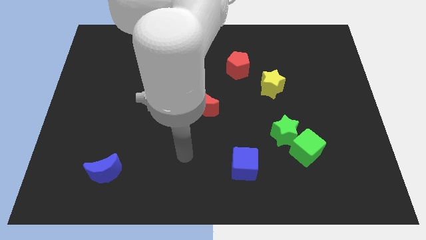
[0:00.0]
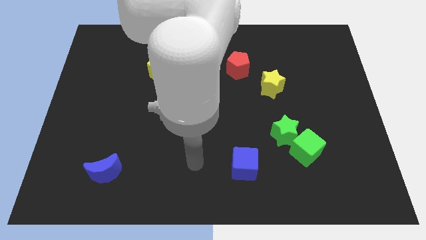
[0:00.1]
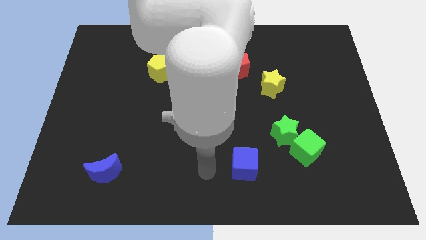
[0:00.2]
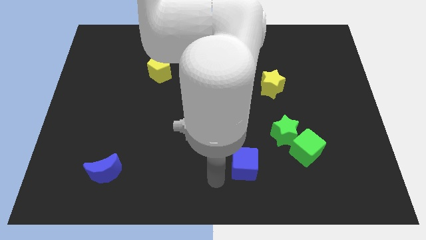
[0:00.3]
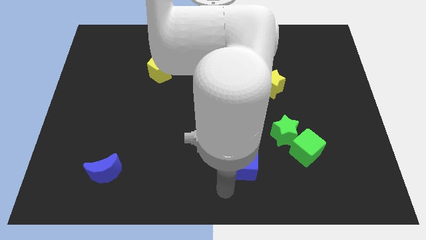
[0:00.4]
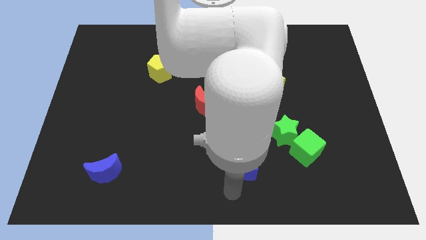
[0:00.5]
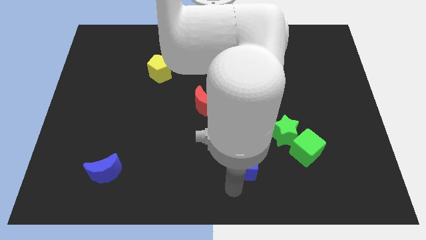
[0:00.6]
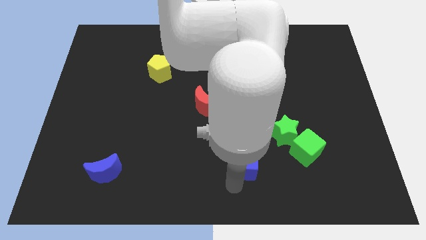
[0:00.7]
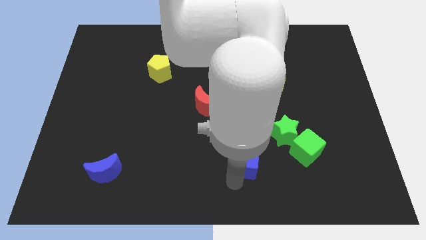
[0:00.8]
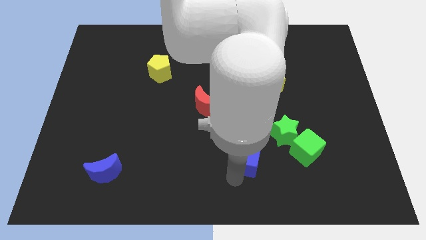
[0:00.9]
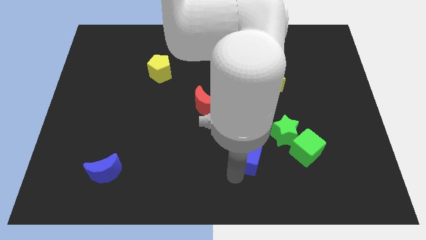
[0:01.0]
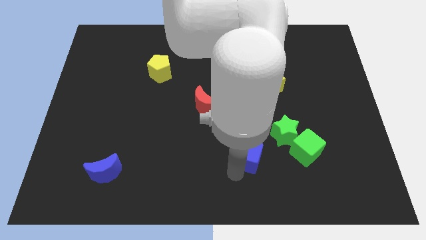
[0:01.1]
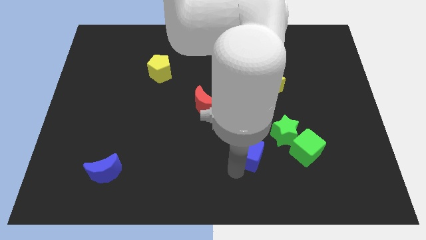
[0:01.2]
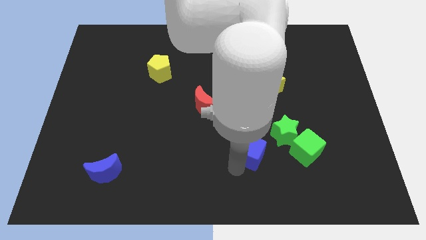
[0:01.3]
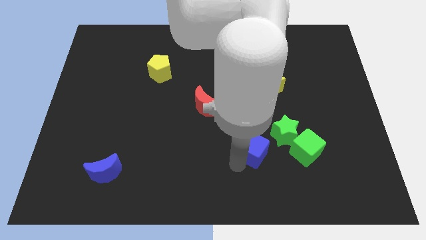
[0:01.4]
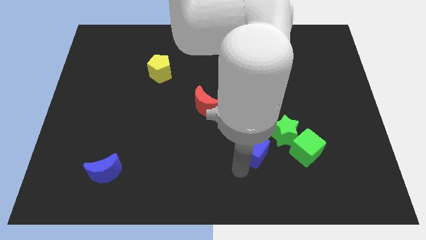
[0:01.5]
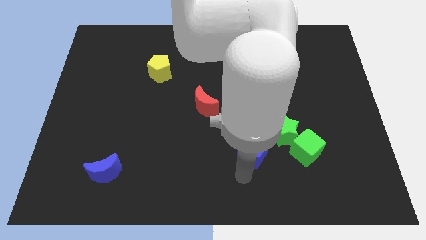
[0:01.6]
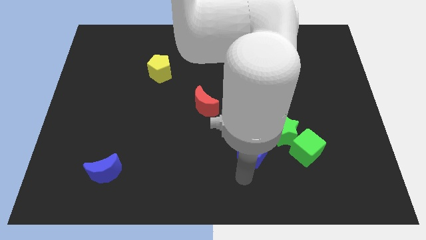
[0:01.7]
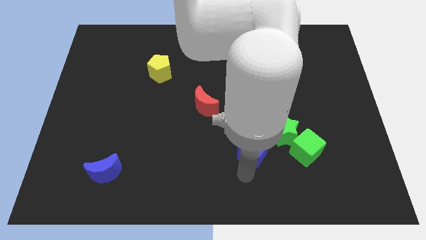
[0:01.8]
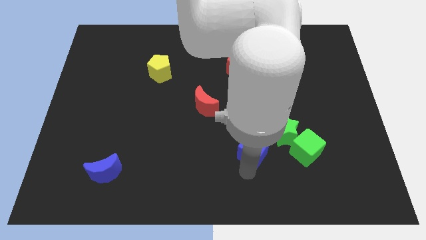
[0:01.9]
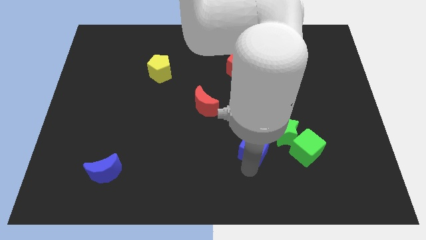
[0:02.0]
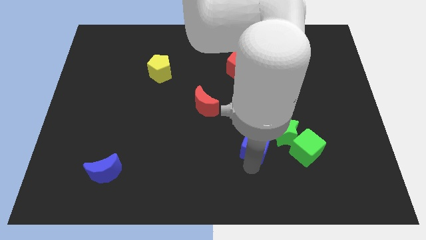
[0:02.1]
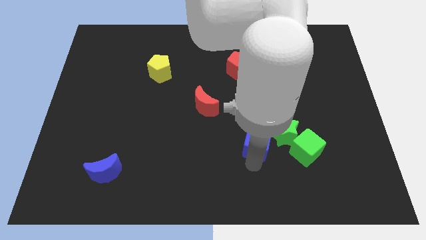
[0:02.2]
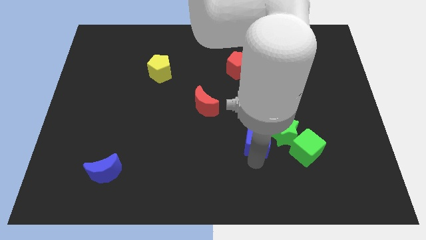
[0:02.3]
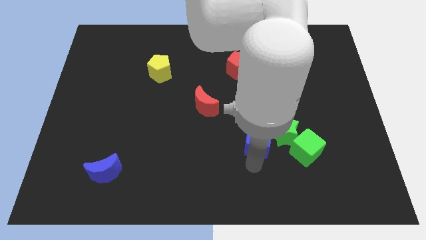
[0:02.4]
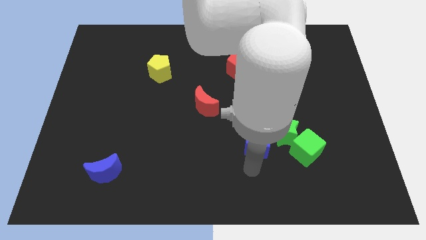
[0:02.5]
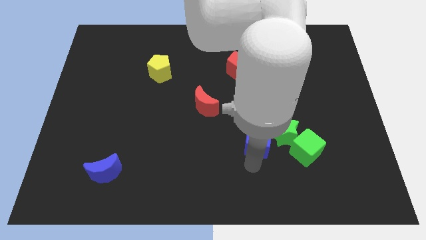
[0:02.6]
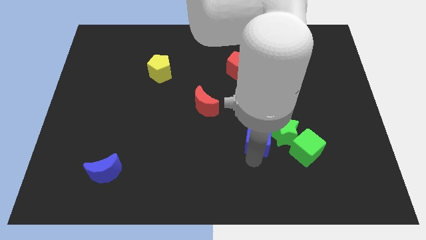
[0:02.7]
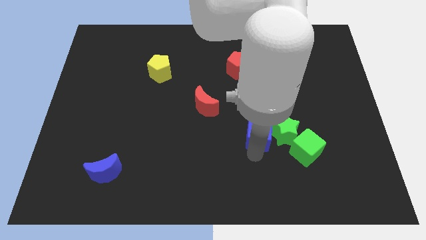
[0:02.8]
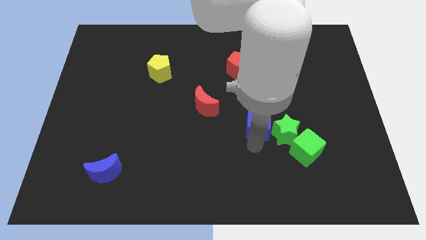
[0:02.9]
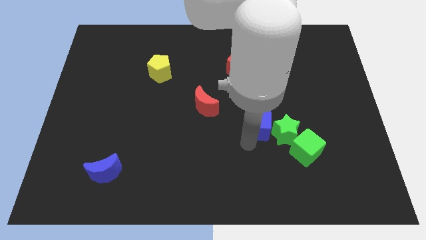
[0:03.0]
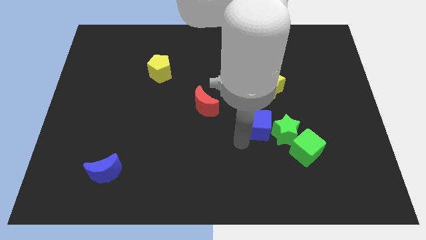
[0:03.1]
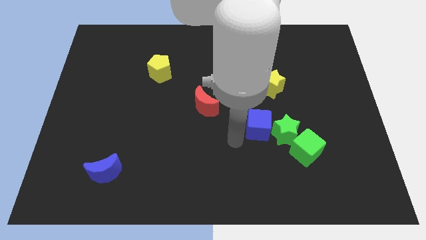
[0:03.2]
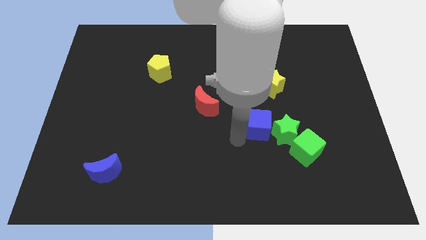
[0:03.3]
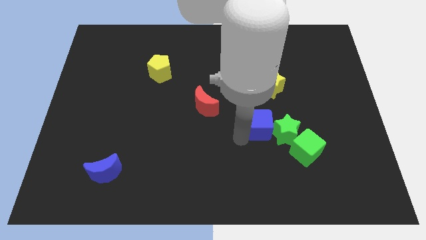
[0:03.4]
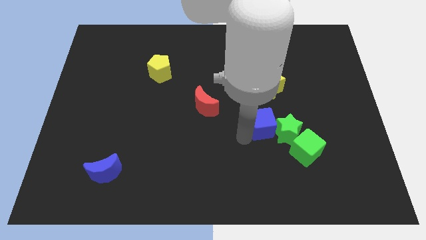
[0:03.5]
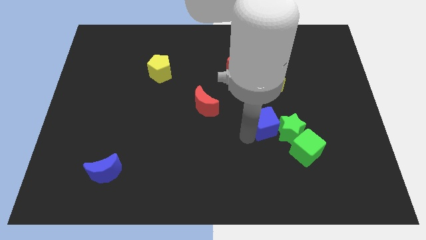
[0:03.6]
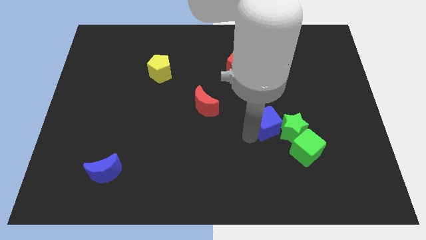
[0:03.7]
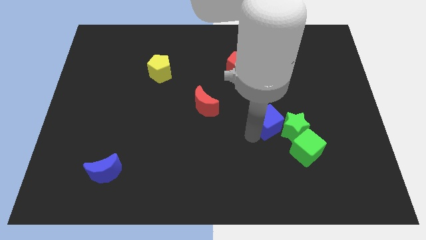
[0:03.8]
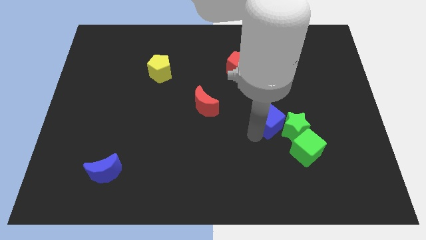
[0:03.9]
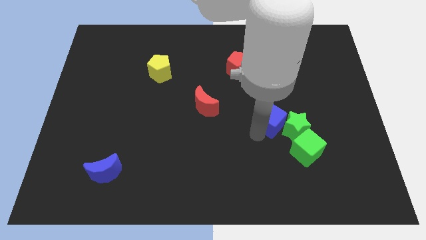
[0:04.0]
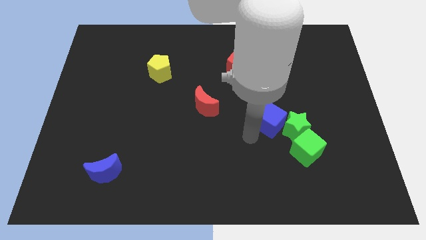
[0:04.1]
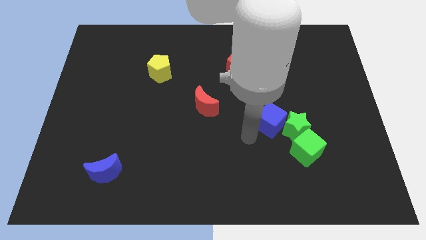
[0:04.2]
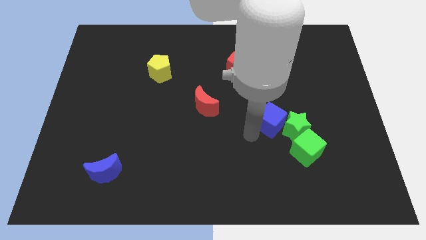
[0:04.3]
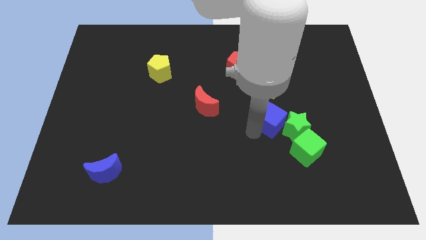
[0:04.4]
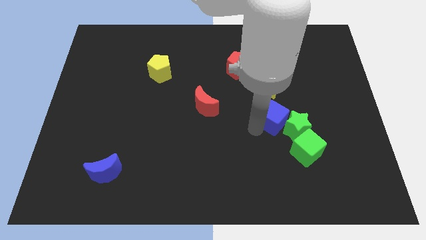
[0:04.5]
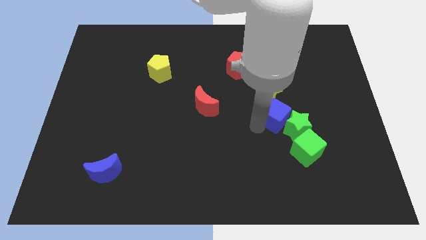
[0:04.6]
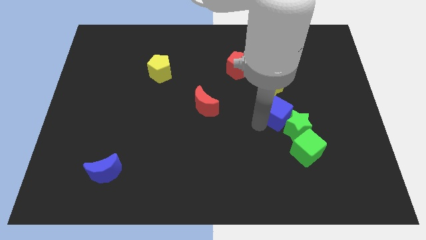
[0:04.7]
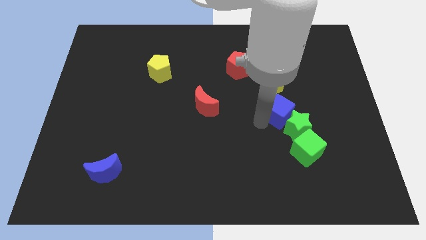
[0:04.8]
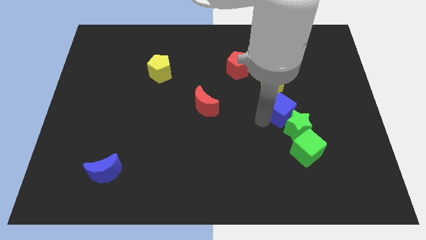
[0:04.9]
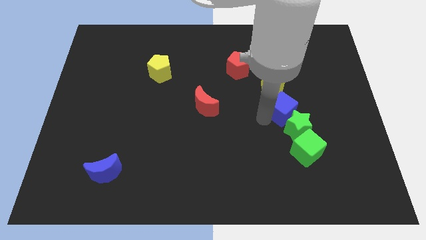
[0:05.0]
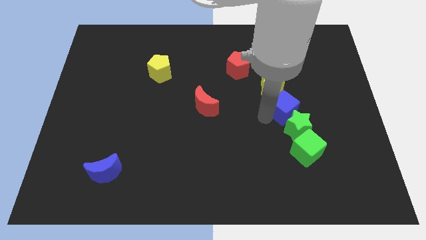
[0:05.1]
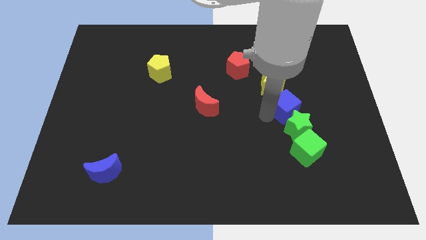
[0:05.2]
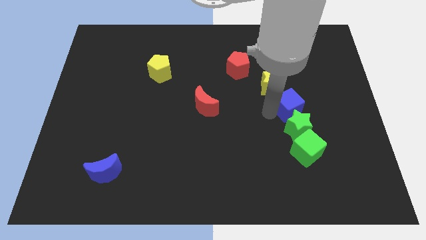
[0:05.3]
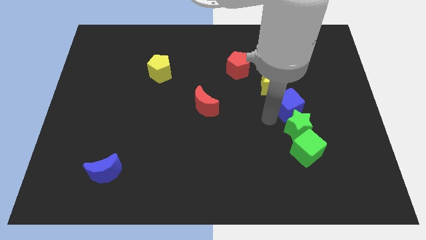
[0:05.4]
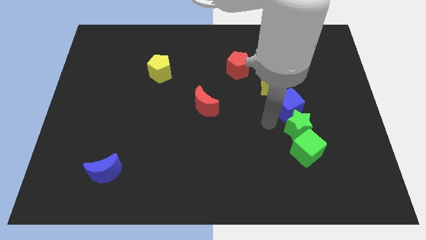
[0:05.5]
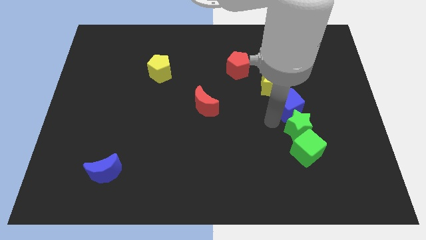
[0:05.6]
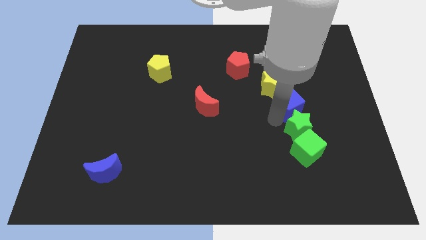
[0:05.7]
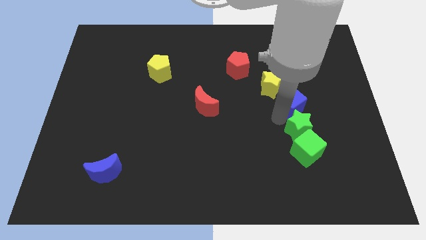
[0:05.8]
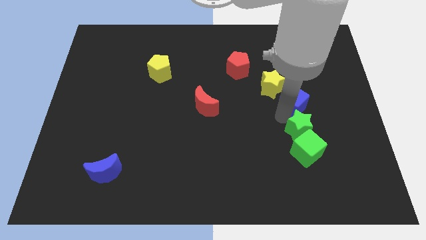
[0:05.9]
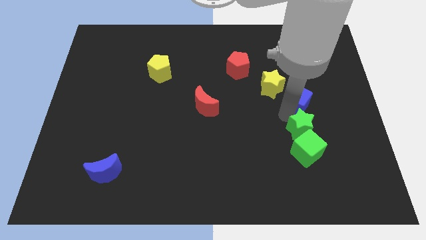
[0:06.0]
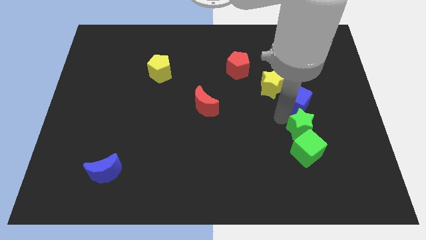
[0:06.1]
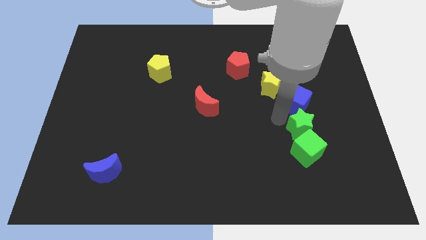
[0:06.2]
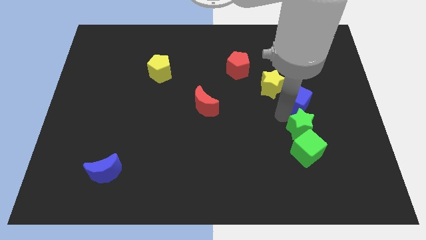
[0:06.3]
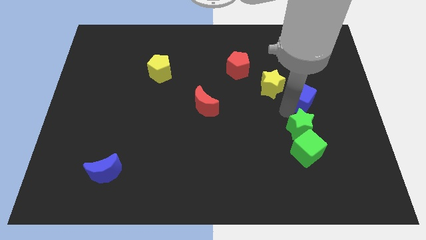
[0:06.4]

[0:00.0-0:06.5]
put the blue cube to the right of the yellow star

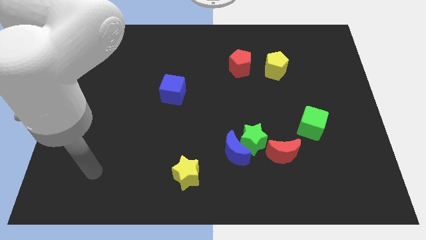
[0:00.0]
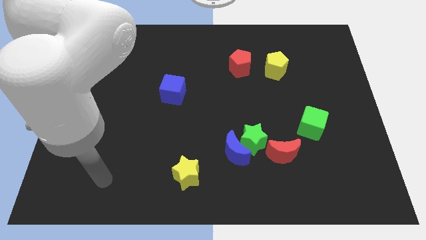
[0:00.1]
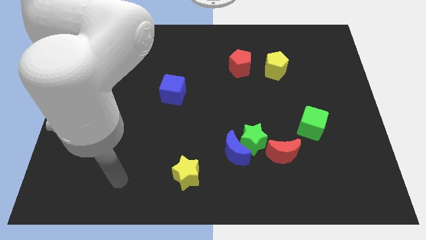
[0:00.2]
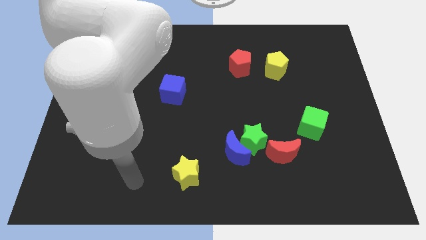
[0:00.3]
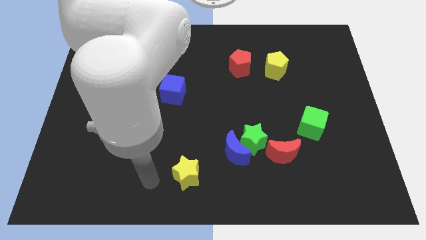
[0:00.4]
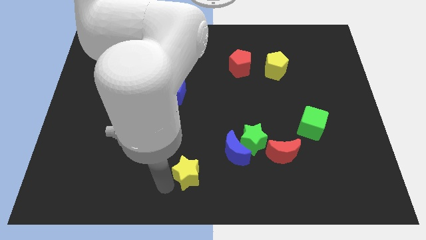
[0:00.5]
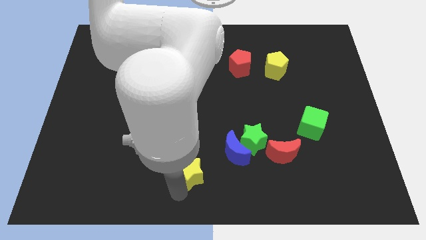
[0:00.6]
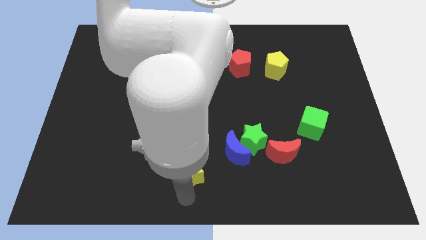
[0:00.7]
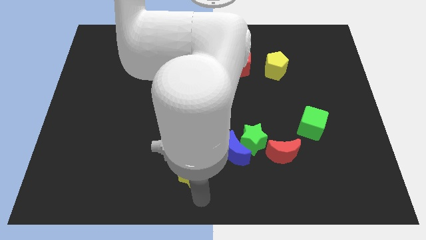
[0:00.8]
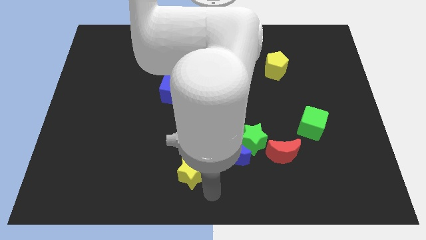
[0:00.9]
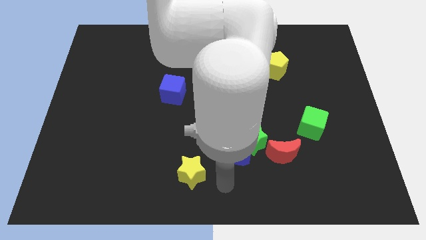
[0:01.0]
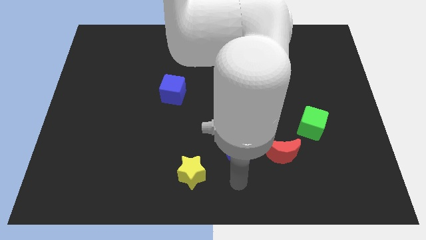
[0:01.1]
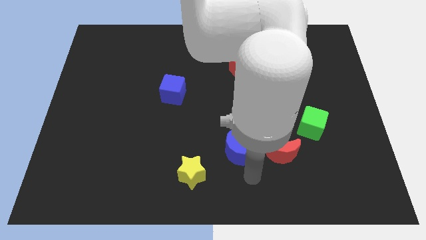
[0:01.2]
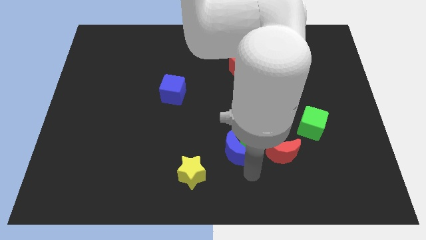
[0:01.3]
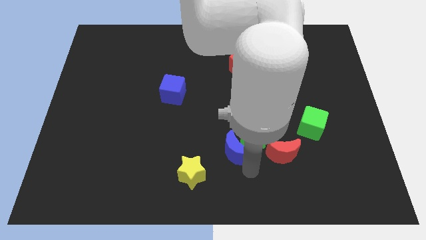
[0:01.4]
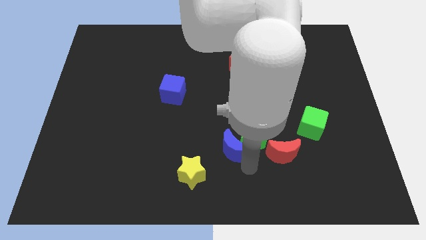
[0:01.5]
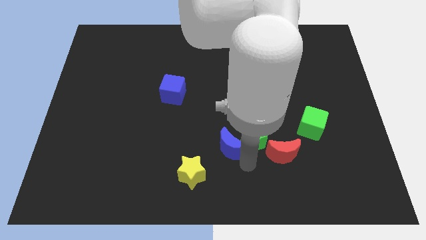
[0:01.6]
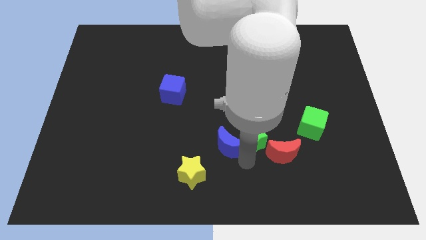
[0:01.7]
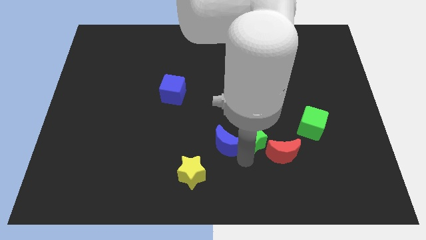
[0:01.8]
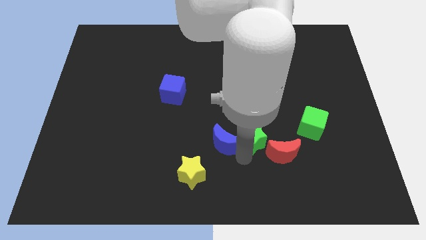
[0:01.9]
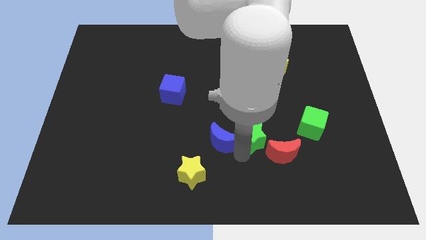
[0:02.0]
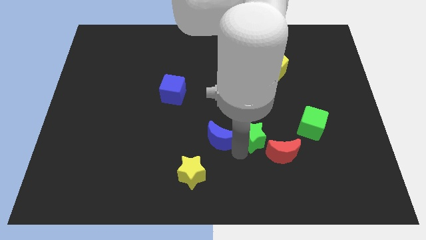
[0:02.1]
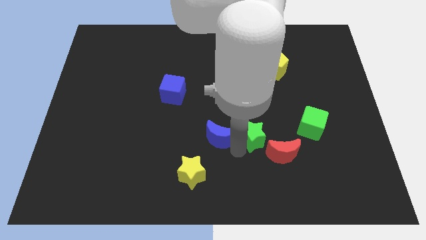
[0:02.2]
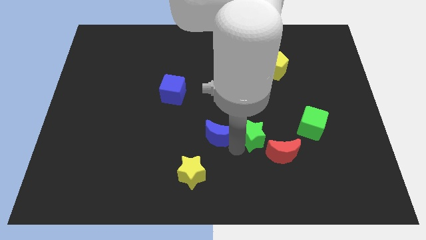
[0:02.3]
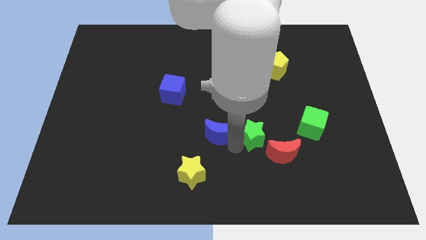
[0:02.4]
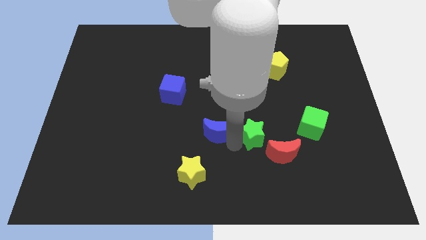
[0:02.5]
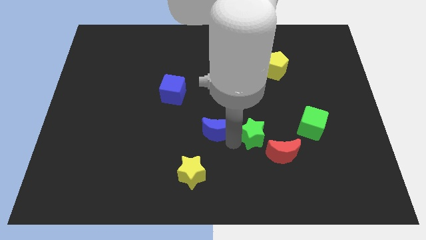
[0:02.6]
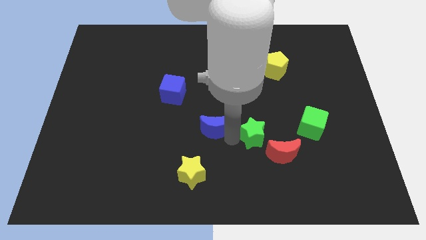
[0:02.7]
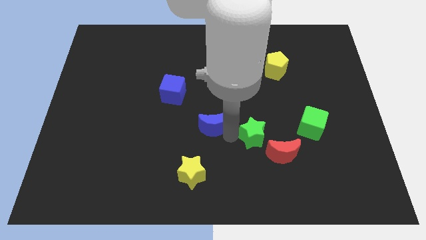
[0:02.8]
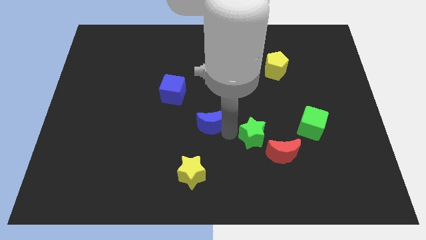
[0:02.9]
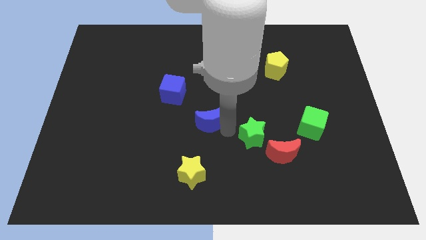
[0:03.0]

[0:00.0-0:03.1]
move the blue moon diagonally down and to the right of the blue cube
